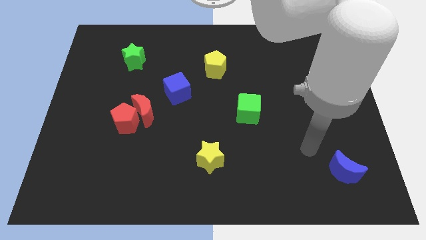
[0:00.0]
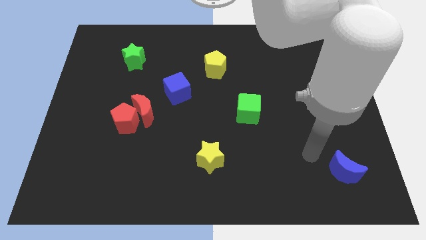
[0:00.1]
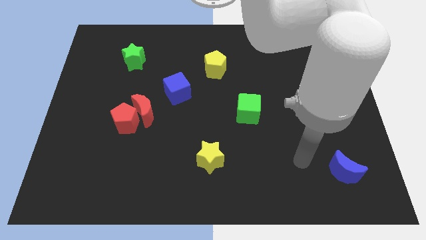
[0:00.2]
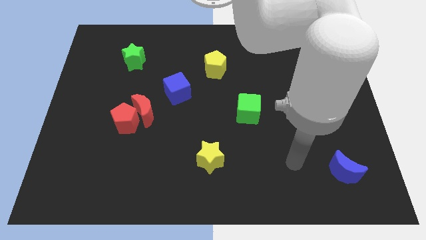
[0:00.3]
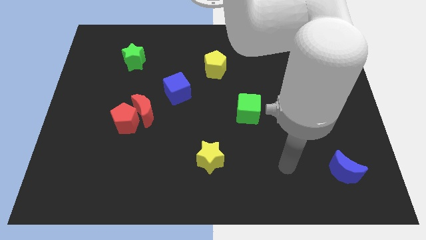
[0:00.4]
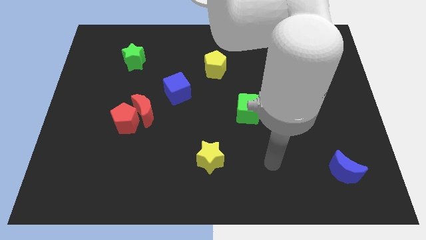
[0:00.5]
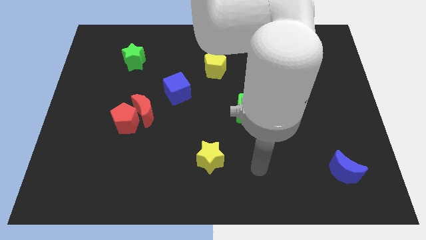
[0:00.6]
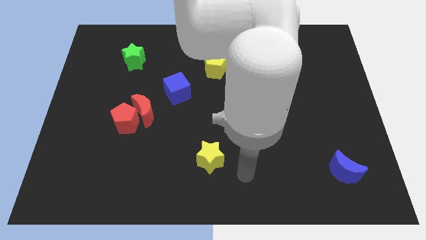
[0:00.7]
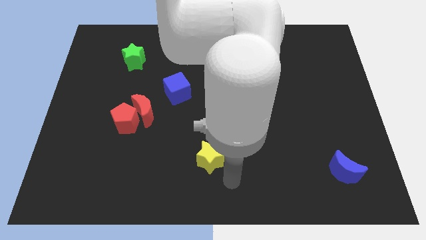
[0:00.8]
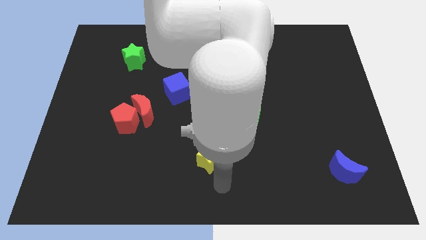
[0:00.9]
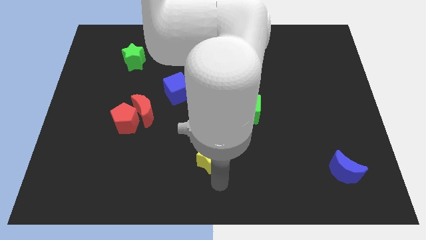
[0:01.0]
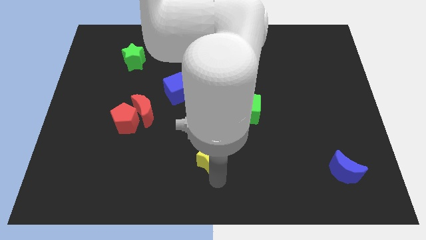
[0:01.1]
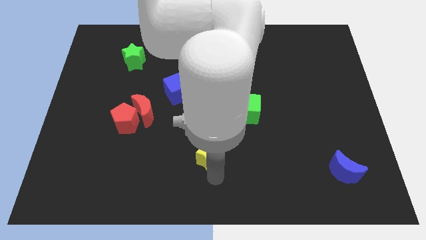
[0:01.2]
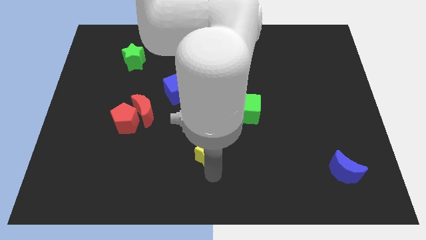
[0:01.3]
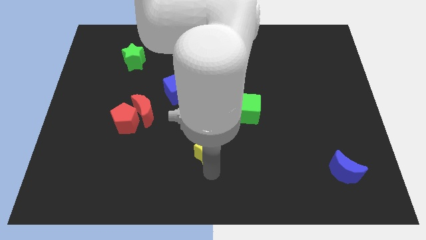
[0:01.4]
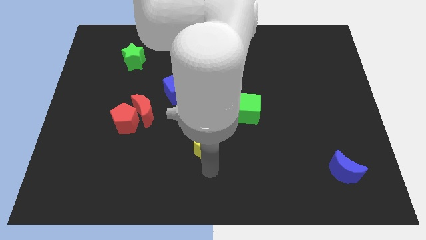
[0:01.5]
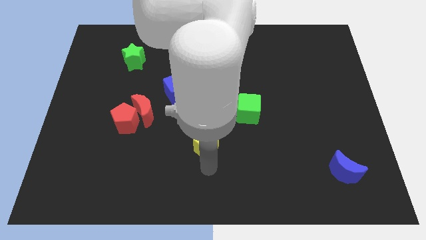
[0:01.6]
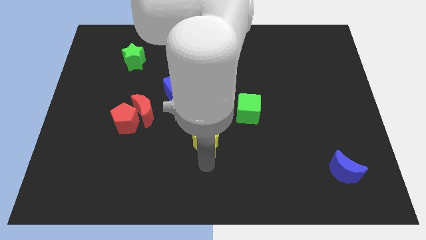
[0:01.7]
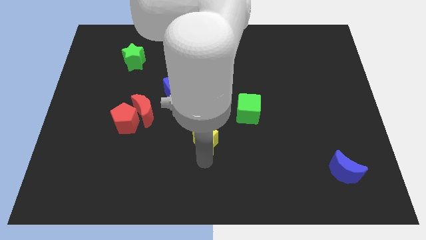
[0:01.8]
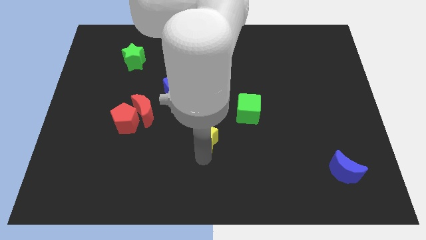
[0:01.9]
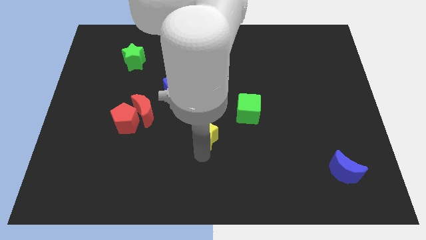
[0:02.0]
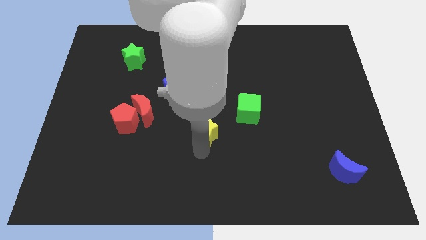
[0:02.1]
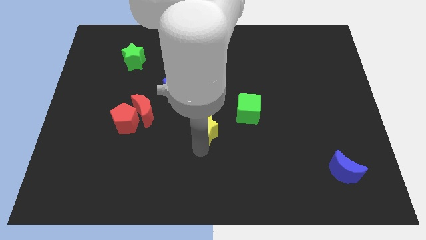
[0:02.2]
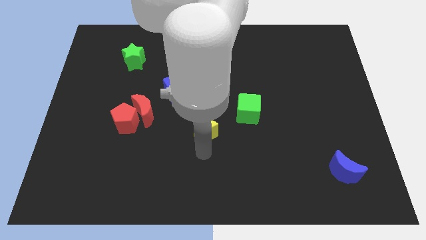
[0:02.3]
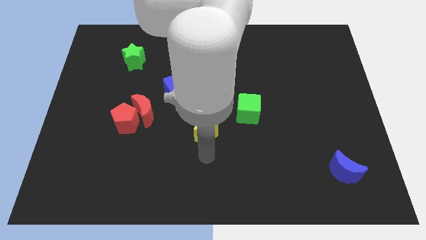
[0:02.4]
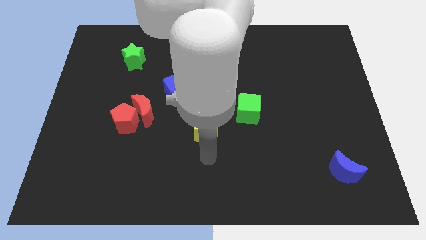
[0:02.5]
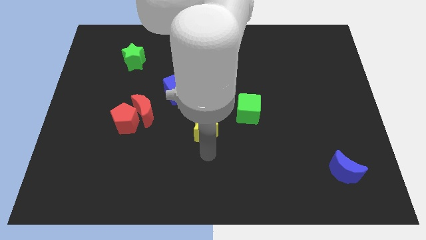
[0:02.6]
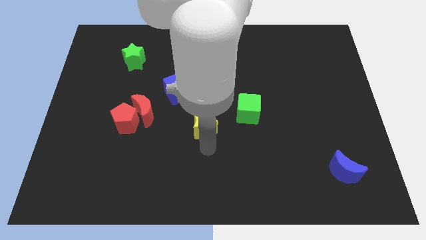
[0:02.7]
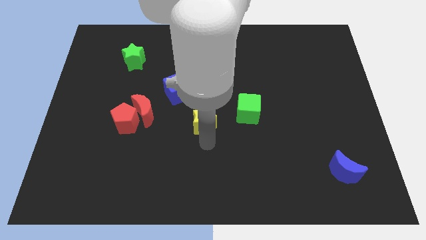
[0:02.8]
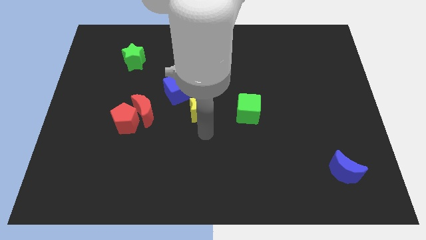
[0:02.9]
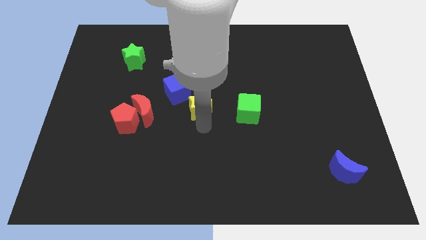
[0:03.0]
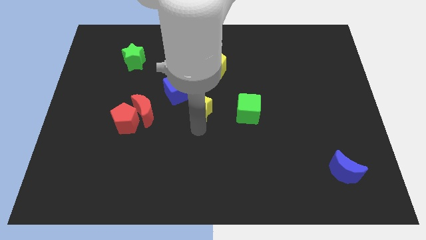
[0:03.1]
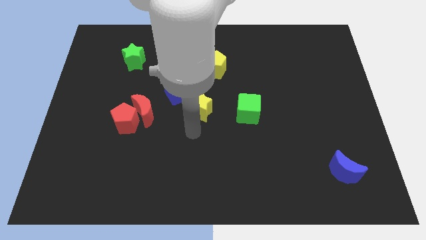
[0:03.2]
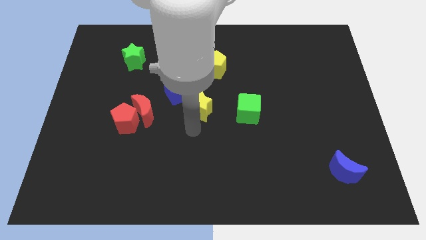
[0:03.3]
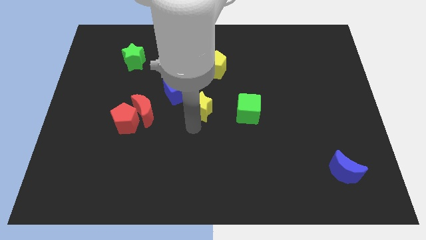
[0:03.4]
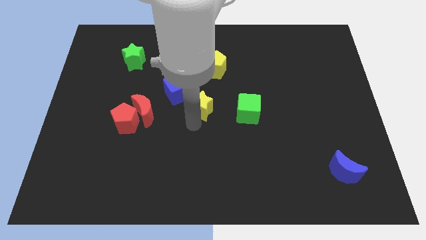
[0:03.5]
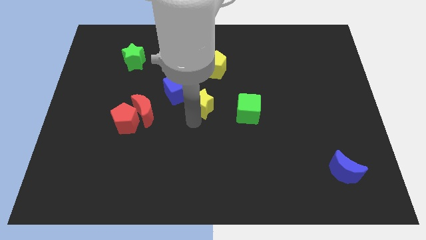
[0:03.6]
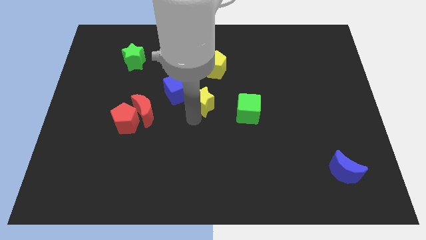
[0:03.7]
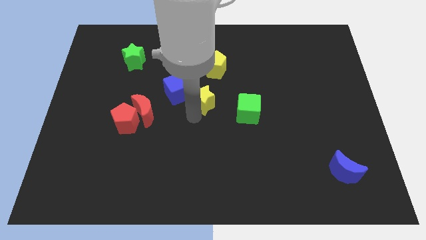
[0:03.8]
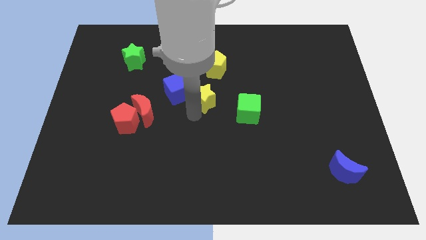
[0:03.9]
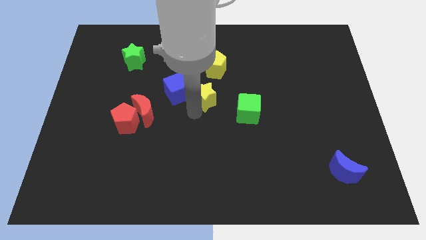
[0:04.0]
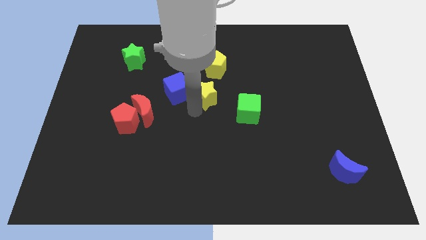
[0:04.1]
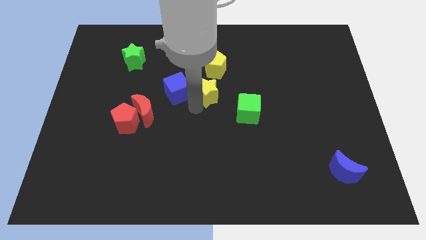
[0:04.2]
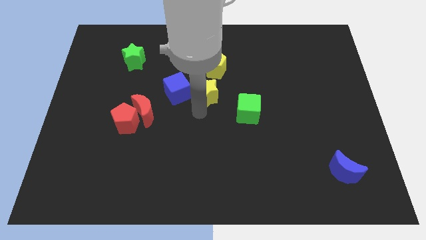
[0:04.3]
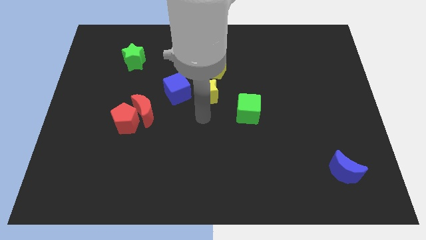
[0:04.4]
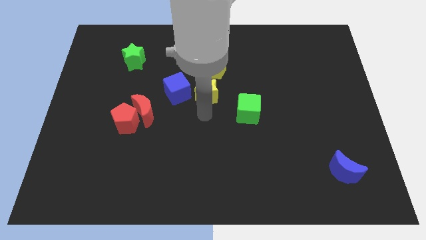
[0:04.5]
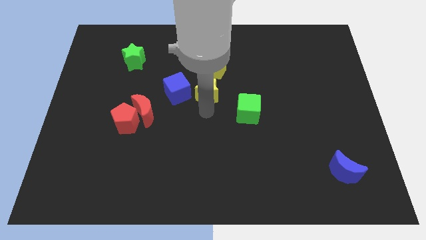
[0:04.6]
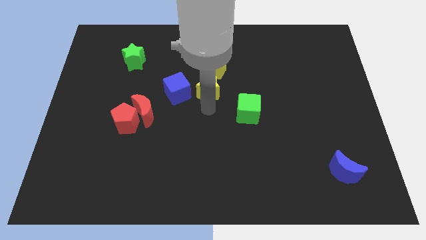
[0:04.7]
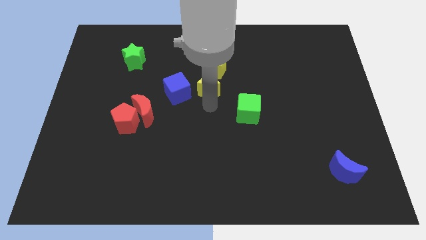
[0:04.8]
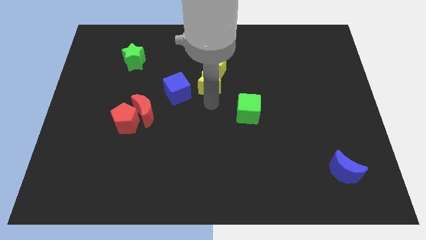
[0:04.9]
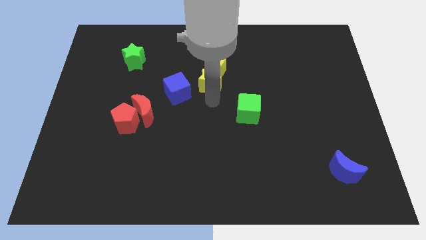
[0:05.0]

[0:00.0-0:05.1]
put the yellow star to the yellow pentagon

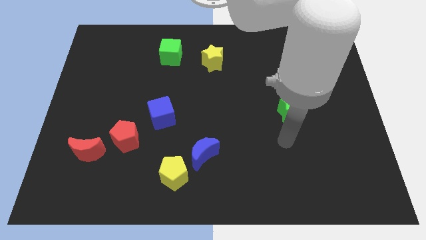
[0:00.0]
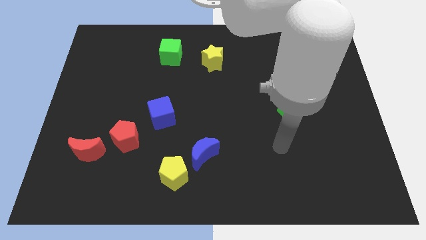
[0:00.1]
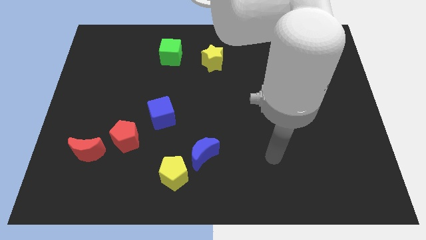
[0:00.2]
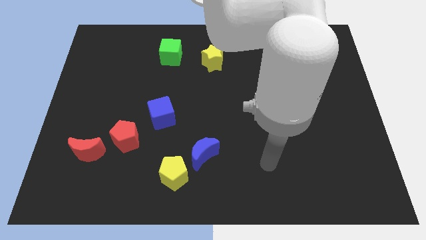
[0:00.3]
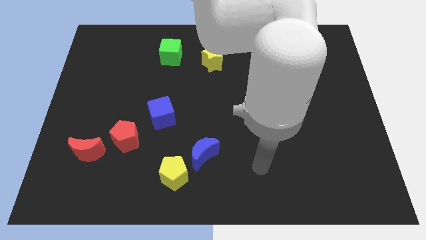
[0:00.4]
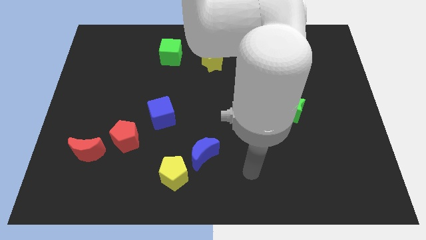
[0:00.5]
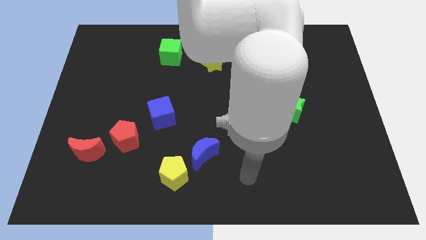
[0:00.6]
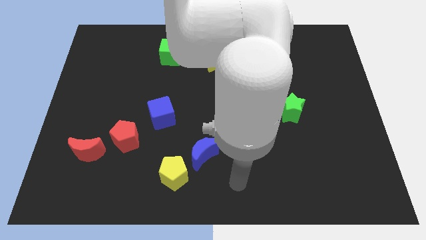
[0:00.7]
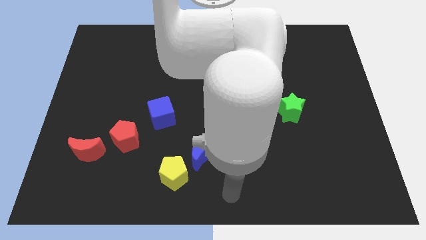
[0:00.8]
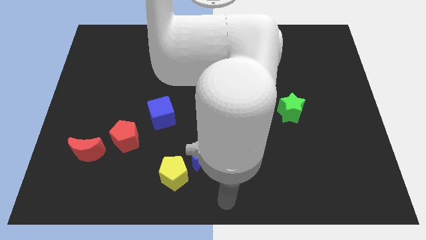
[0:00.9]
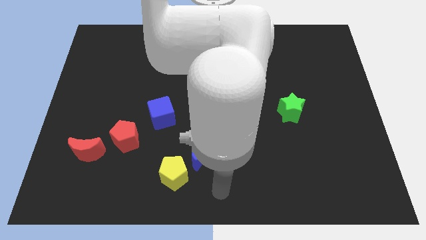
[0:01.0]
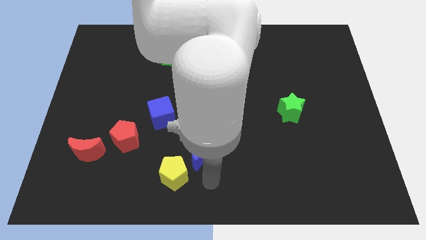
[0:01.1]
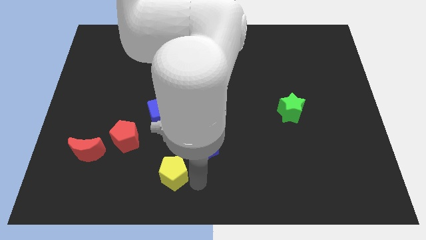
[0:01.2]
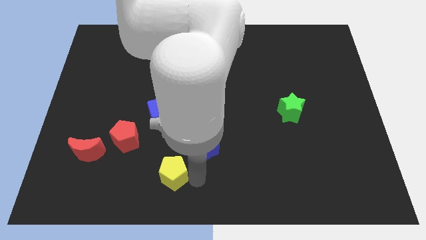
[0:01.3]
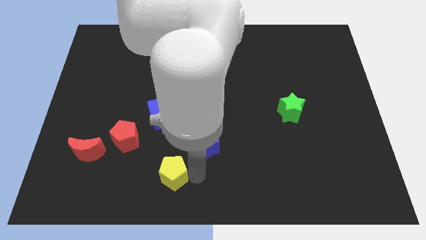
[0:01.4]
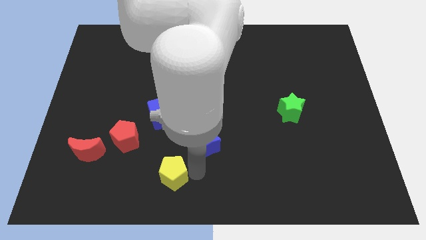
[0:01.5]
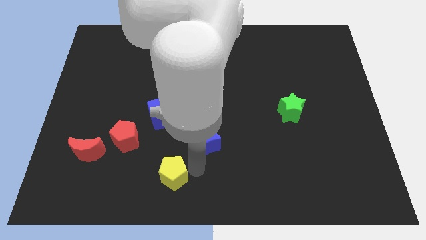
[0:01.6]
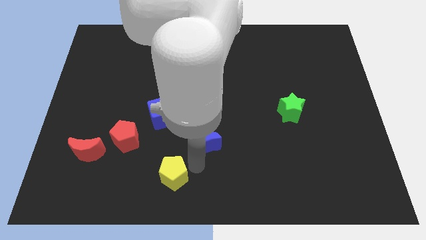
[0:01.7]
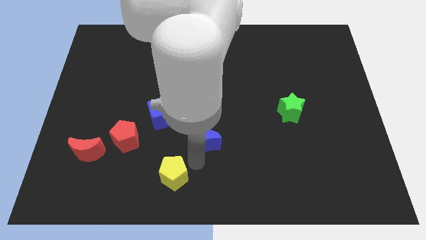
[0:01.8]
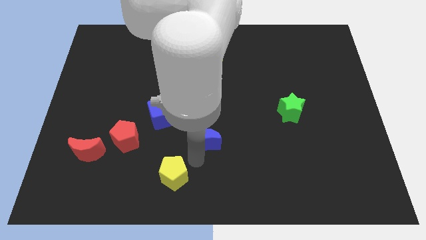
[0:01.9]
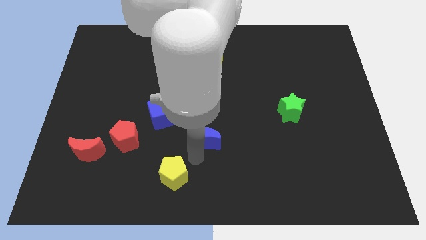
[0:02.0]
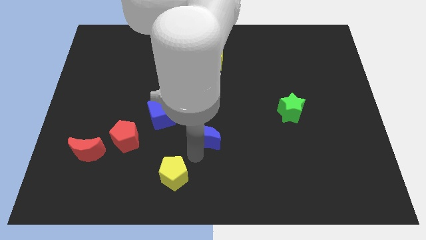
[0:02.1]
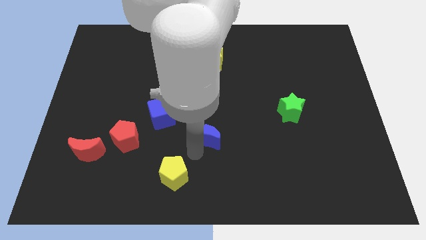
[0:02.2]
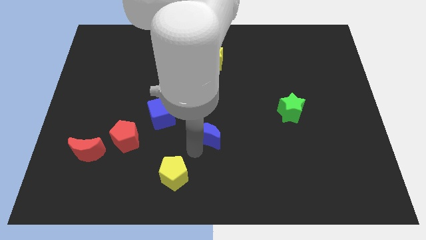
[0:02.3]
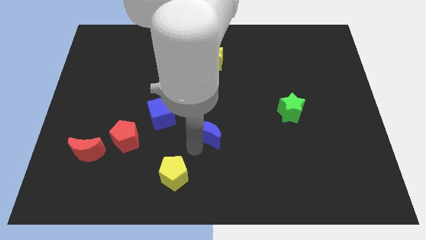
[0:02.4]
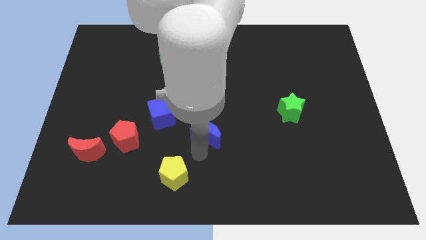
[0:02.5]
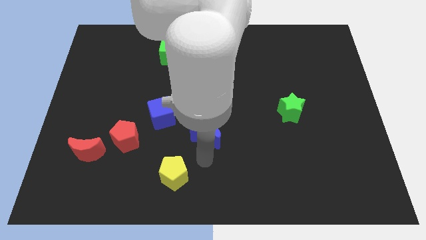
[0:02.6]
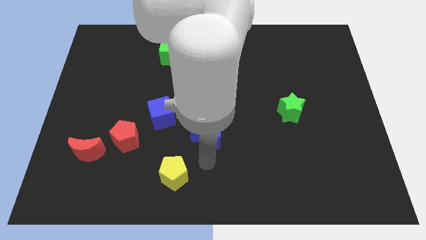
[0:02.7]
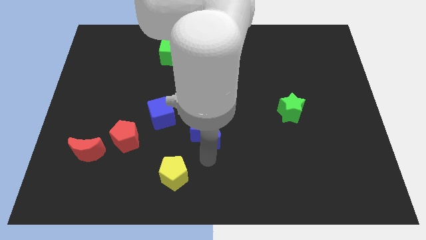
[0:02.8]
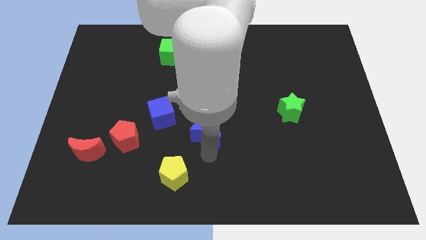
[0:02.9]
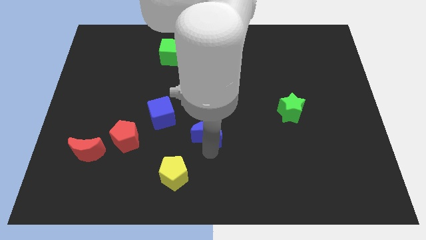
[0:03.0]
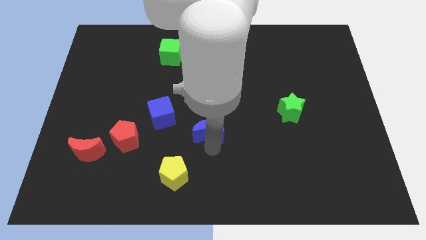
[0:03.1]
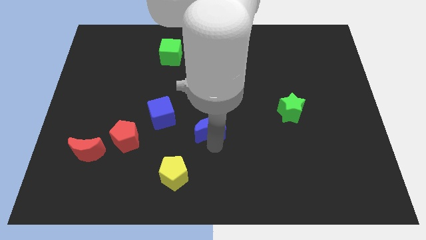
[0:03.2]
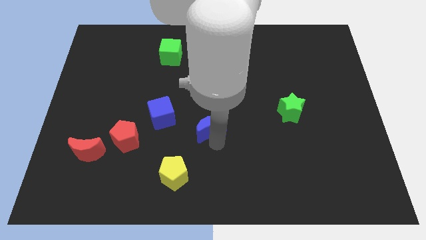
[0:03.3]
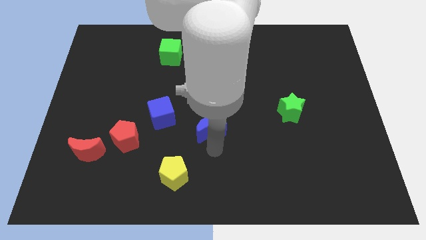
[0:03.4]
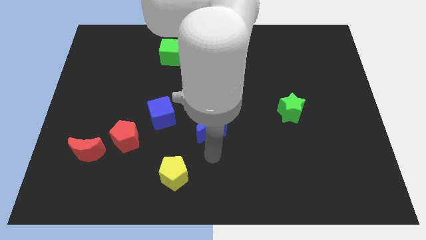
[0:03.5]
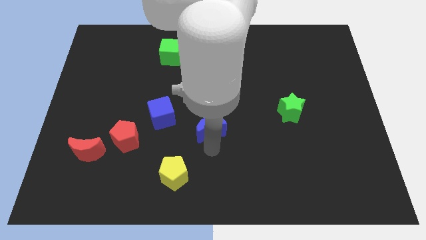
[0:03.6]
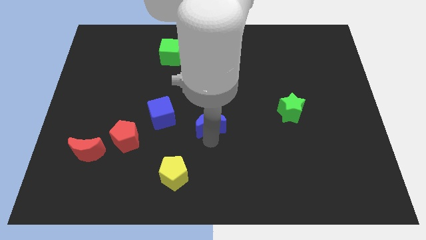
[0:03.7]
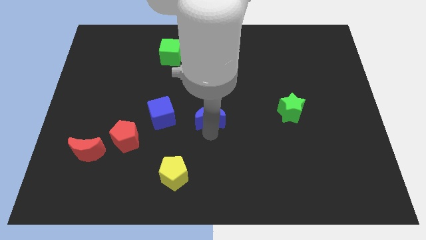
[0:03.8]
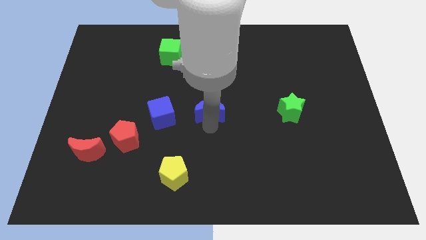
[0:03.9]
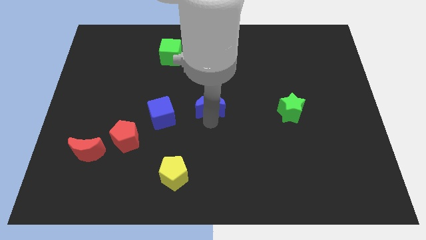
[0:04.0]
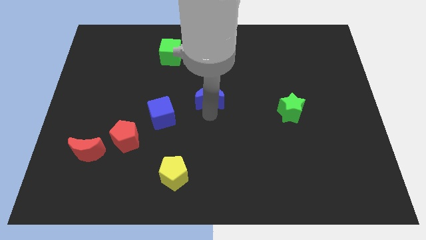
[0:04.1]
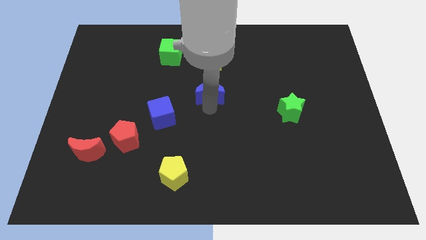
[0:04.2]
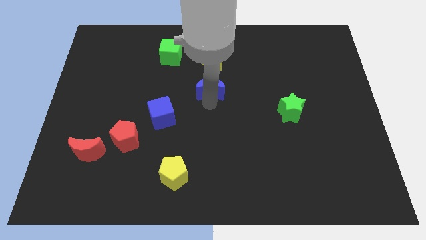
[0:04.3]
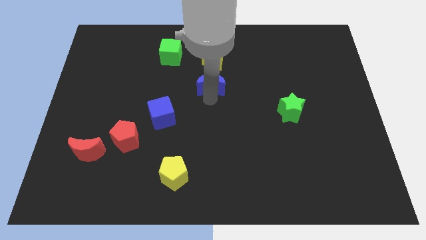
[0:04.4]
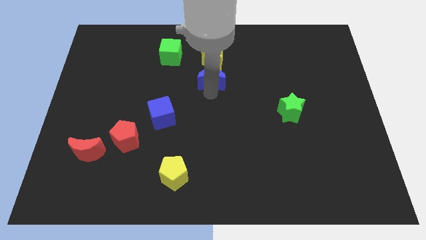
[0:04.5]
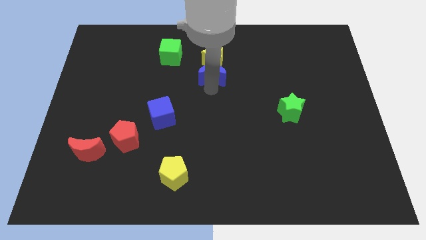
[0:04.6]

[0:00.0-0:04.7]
put the blue moon next to the yellow star
